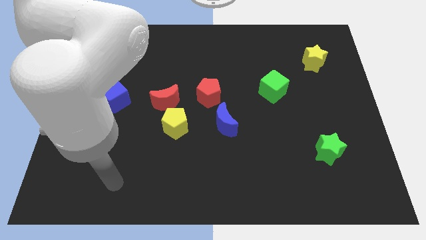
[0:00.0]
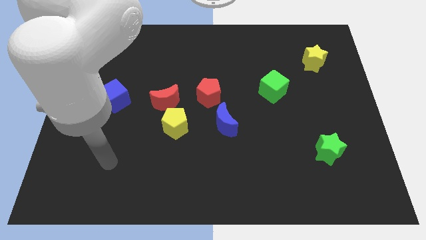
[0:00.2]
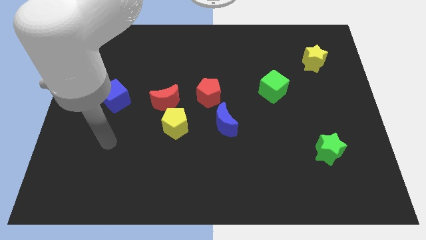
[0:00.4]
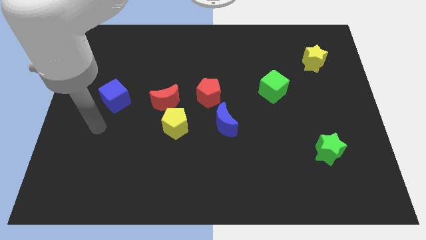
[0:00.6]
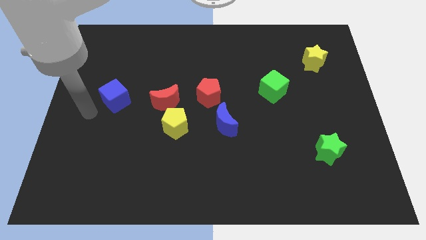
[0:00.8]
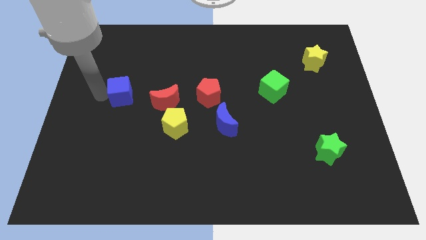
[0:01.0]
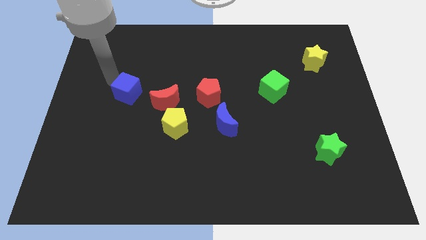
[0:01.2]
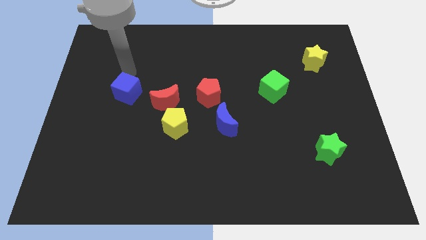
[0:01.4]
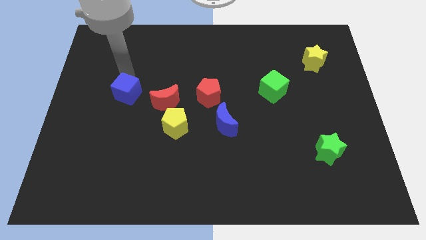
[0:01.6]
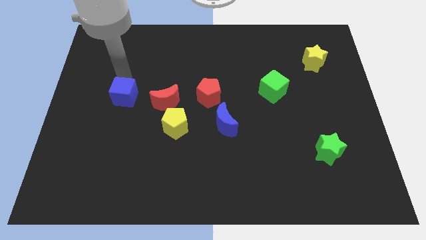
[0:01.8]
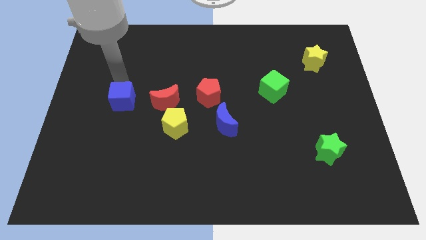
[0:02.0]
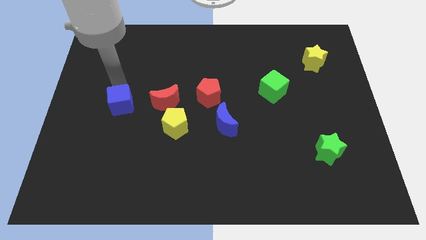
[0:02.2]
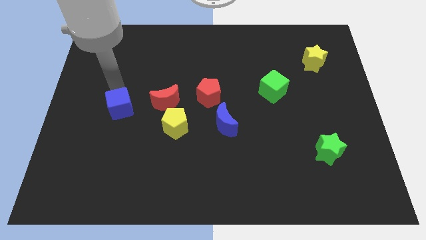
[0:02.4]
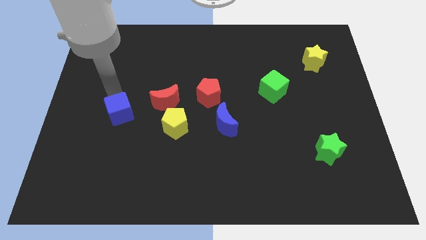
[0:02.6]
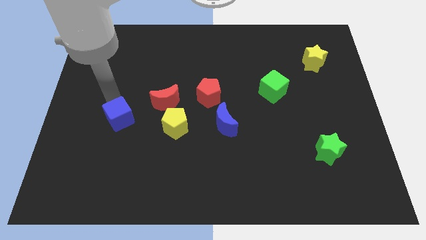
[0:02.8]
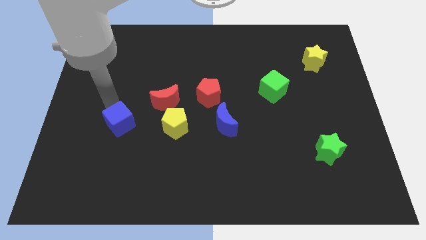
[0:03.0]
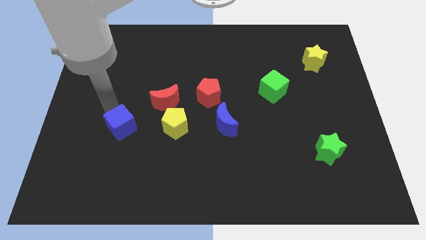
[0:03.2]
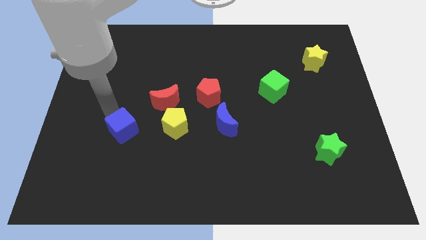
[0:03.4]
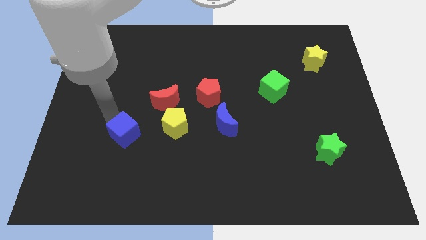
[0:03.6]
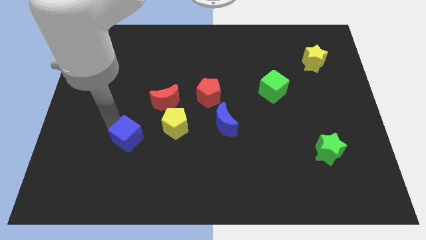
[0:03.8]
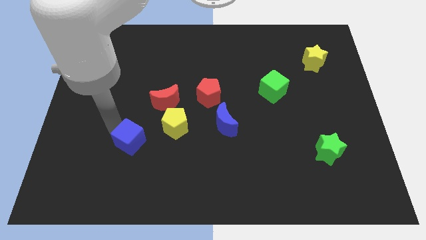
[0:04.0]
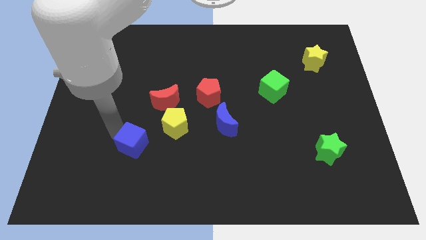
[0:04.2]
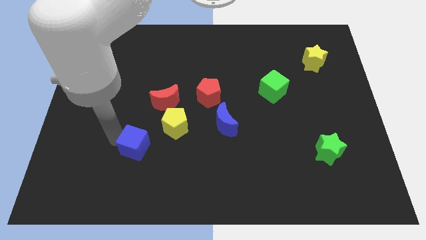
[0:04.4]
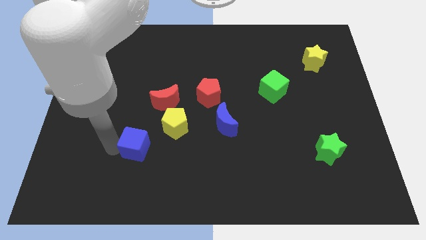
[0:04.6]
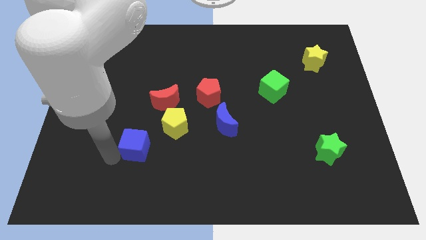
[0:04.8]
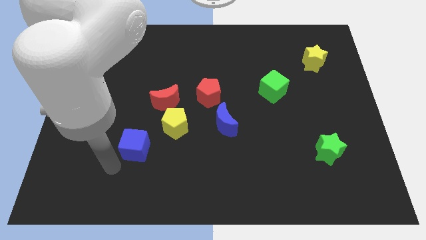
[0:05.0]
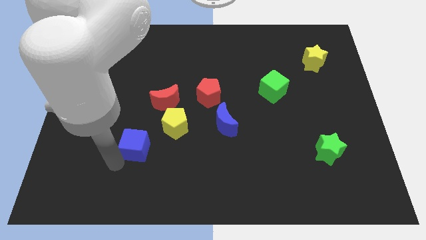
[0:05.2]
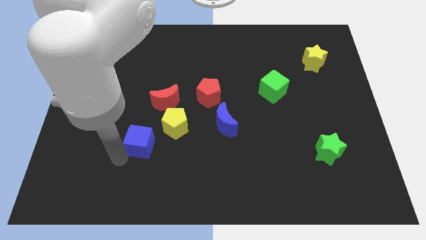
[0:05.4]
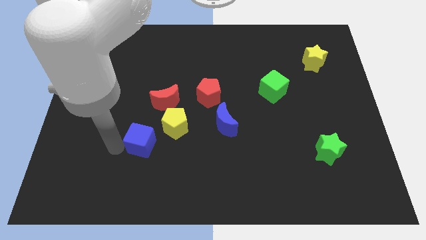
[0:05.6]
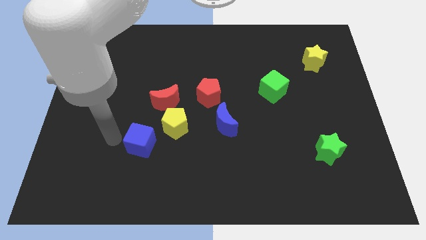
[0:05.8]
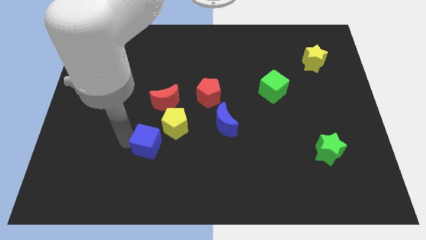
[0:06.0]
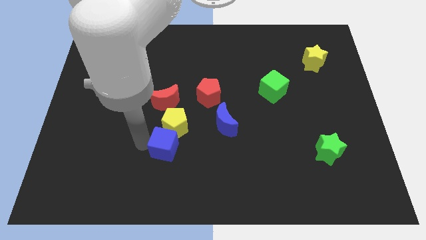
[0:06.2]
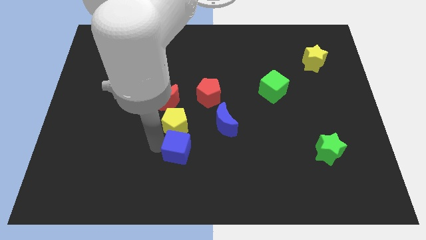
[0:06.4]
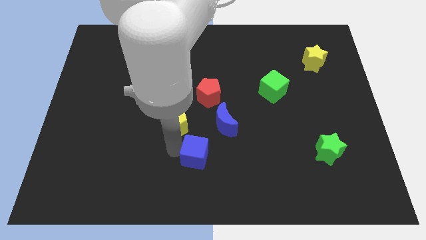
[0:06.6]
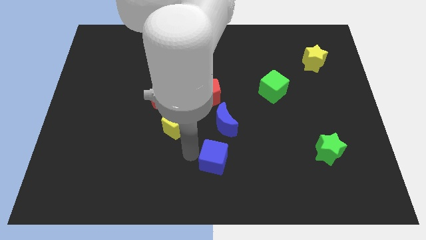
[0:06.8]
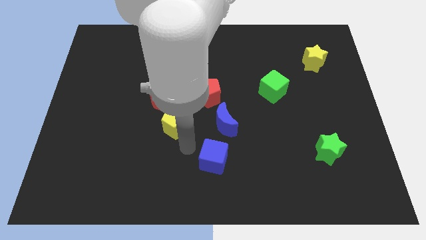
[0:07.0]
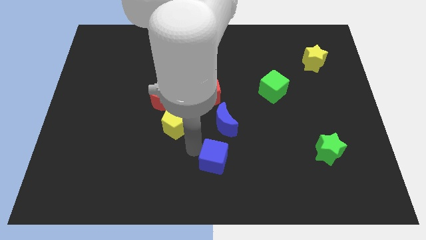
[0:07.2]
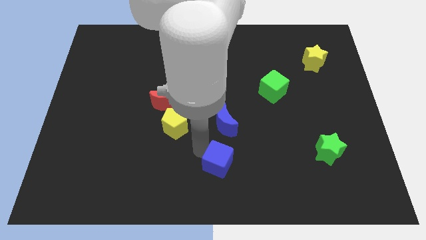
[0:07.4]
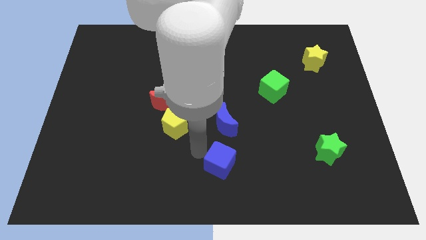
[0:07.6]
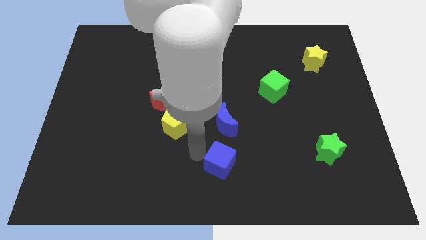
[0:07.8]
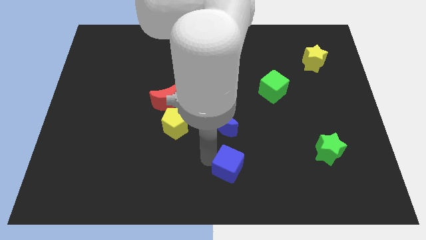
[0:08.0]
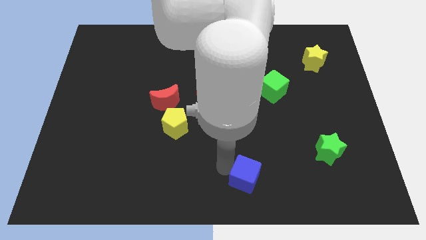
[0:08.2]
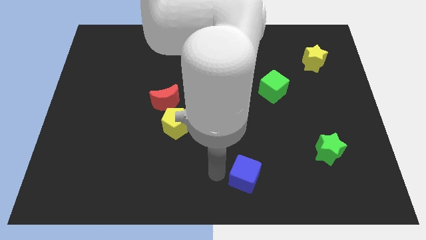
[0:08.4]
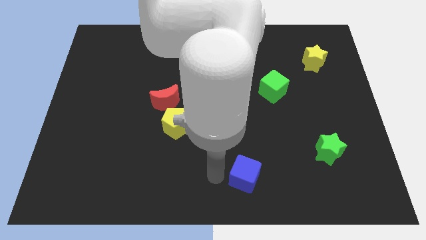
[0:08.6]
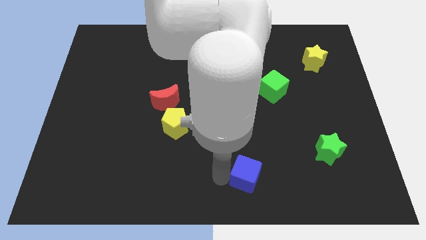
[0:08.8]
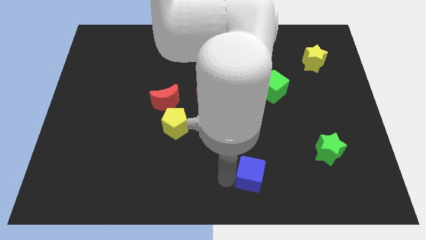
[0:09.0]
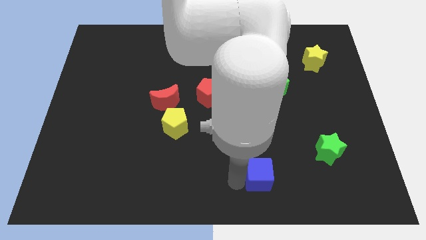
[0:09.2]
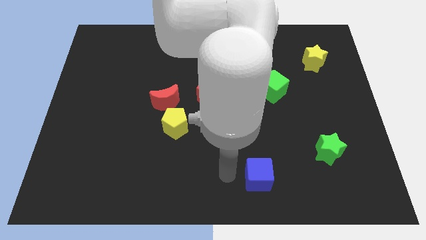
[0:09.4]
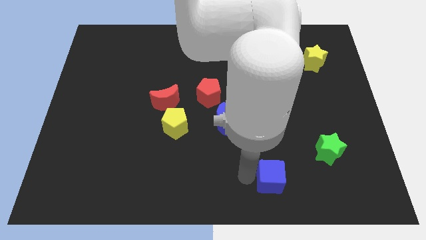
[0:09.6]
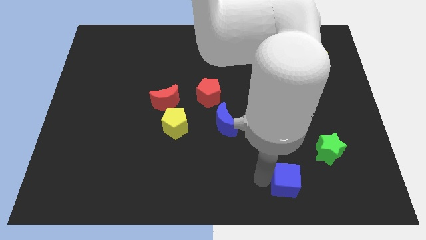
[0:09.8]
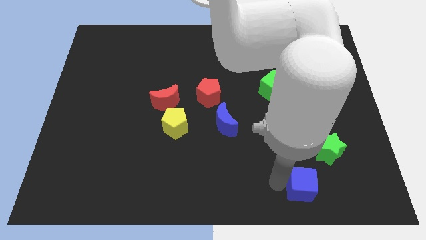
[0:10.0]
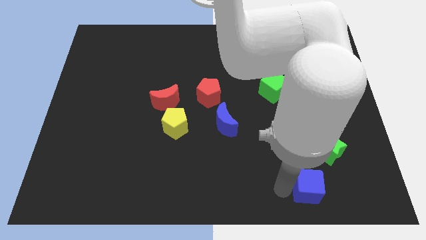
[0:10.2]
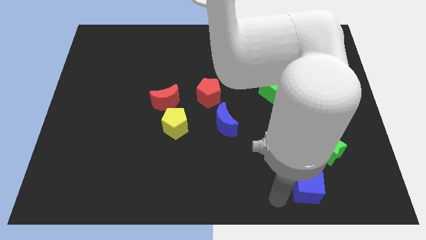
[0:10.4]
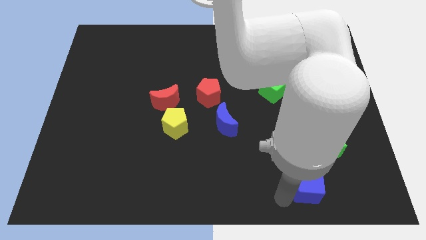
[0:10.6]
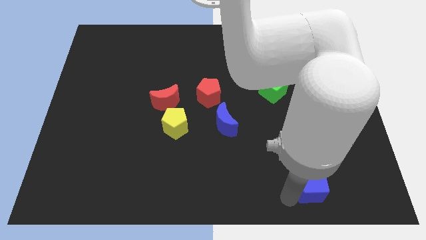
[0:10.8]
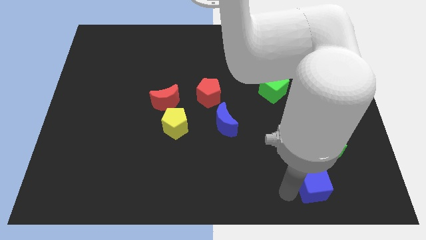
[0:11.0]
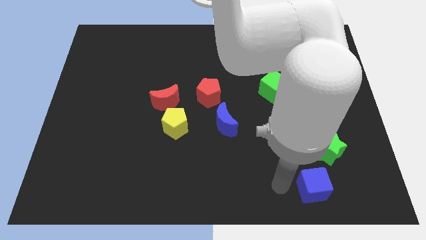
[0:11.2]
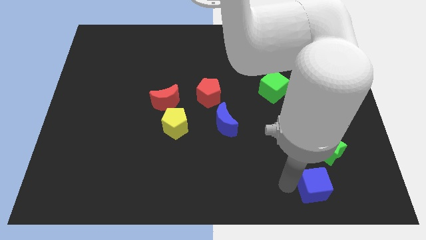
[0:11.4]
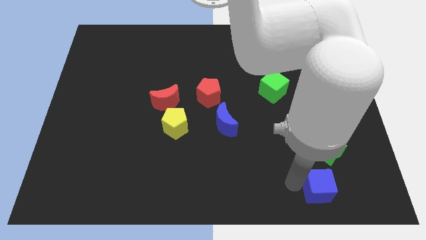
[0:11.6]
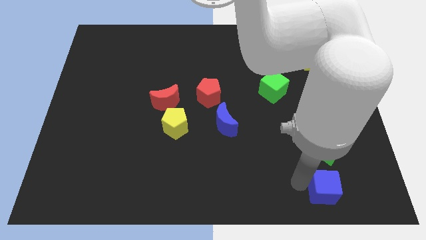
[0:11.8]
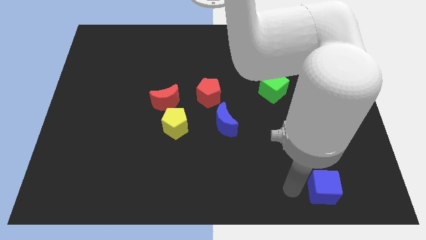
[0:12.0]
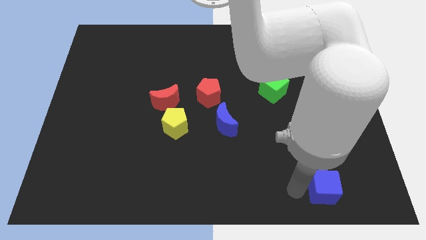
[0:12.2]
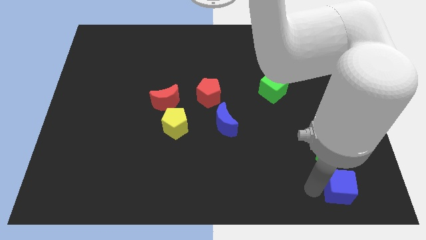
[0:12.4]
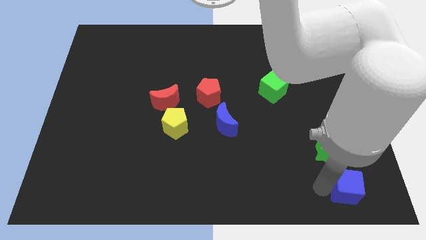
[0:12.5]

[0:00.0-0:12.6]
push the blue cube to the bottom right

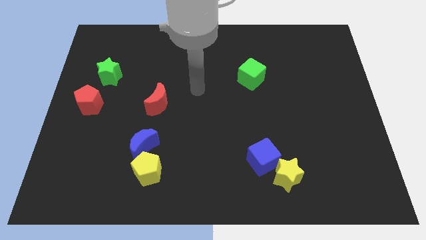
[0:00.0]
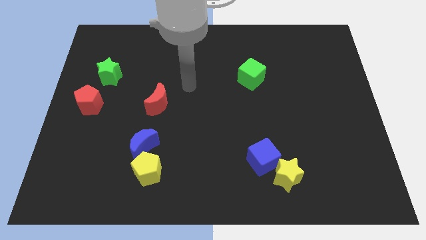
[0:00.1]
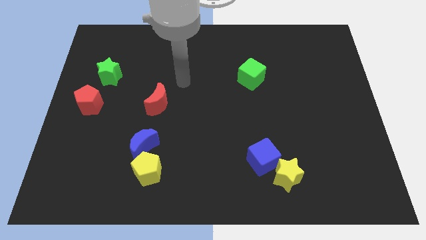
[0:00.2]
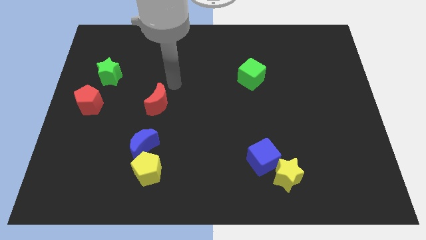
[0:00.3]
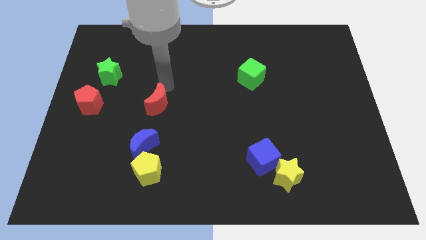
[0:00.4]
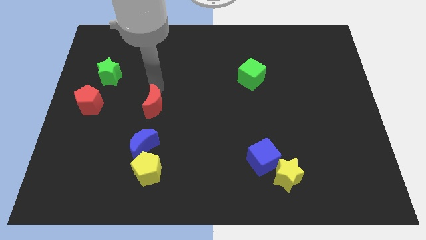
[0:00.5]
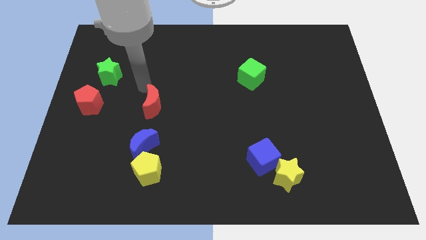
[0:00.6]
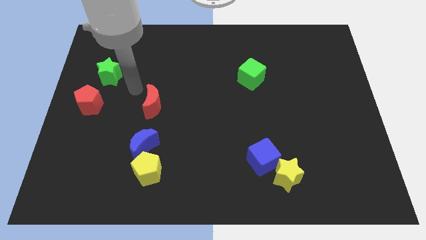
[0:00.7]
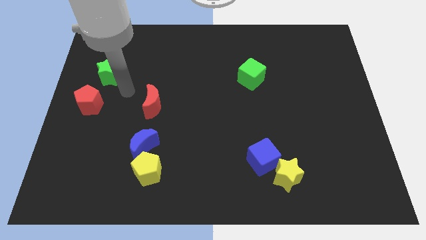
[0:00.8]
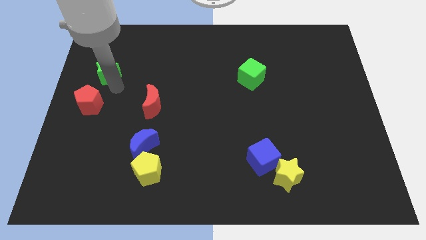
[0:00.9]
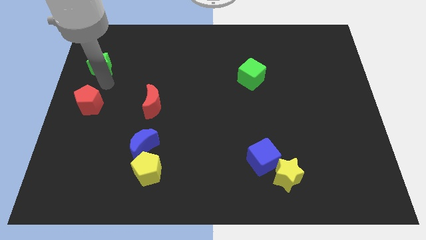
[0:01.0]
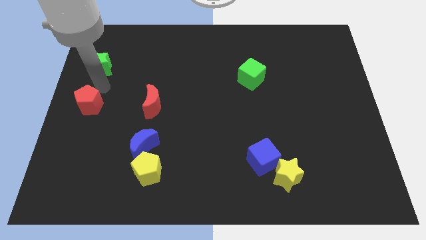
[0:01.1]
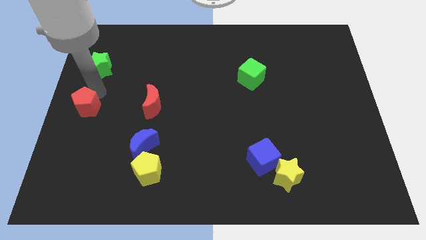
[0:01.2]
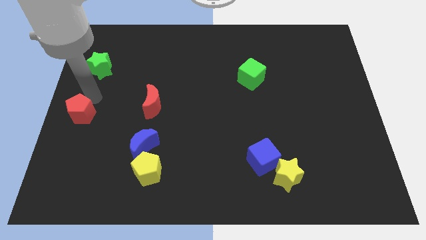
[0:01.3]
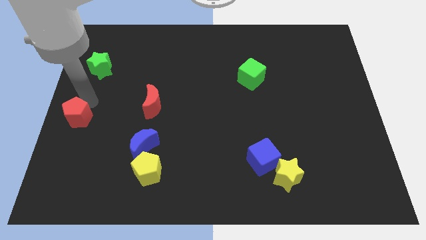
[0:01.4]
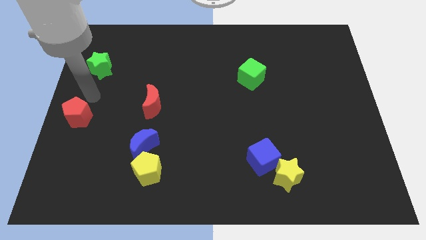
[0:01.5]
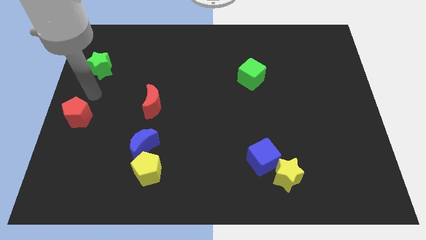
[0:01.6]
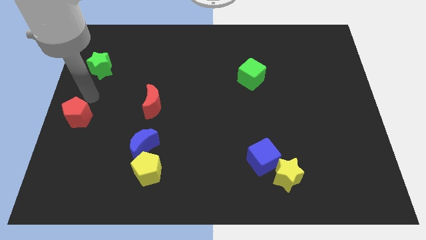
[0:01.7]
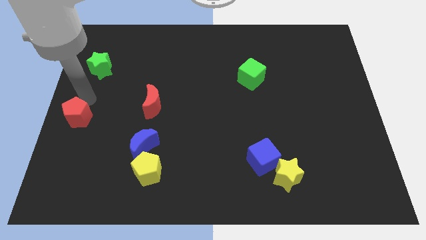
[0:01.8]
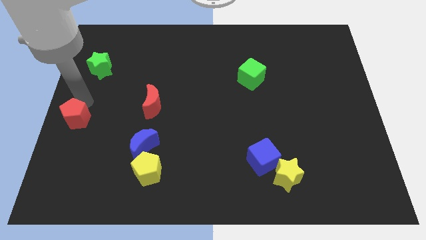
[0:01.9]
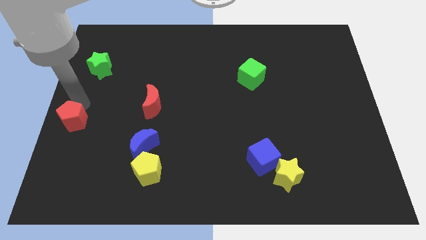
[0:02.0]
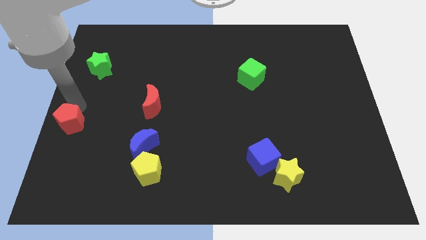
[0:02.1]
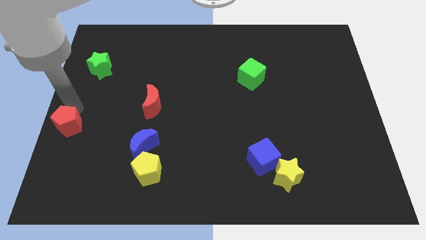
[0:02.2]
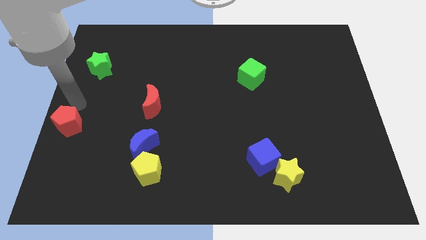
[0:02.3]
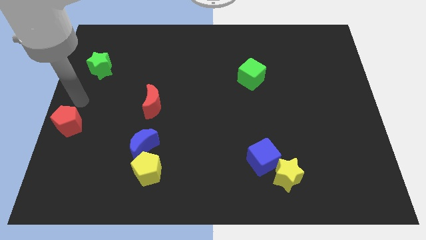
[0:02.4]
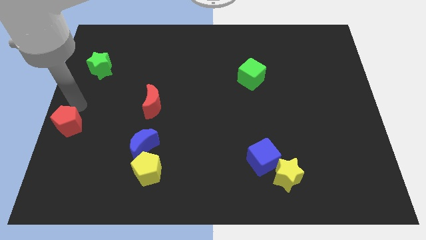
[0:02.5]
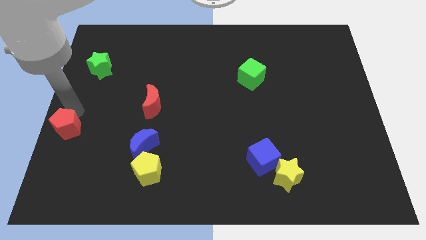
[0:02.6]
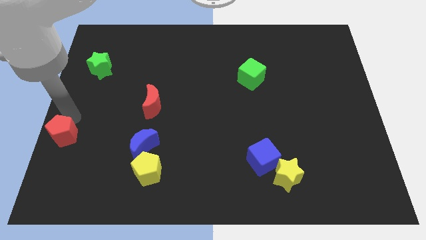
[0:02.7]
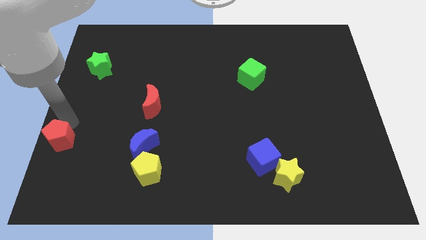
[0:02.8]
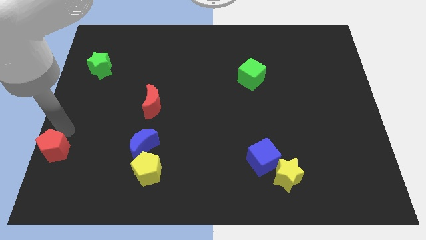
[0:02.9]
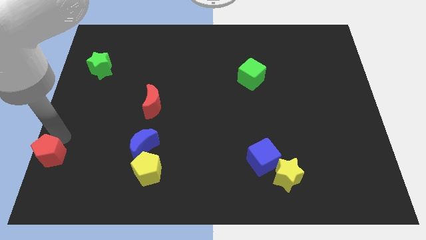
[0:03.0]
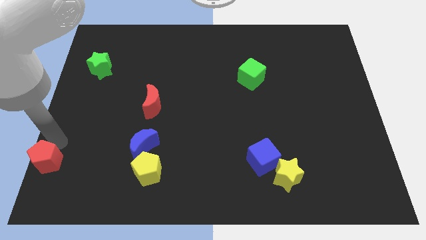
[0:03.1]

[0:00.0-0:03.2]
slide the red pentagon to the bottom left
